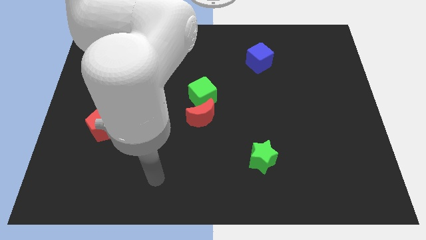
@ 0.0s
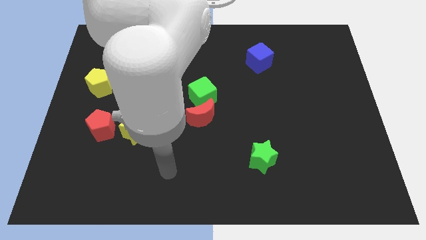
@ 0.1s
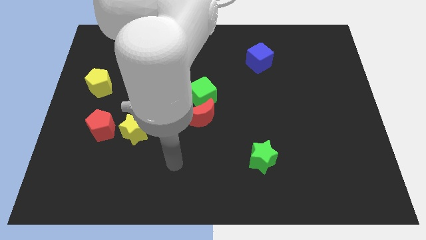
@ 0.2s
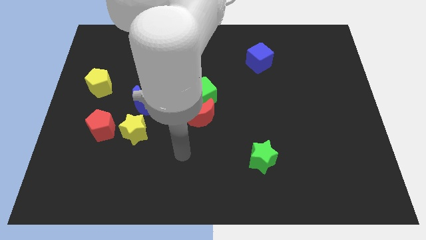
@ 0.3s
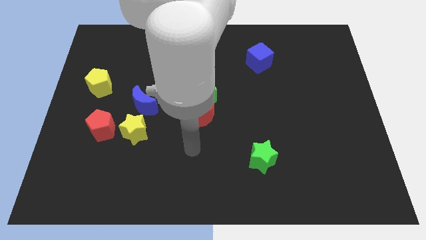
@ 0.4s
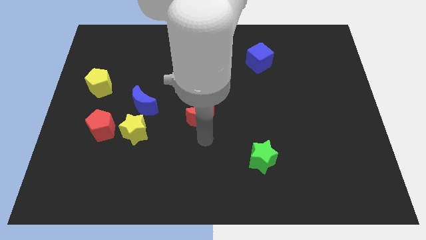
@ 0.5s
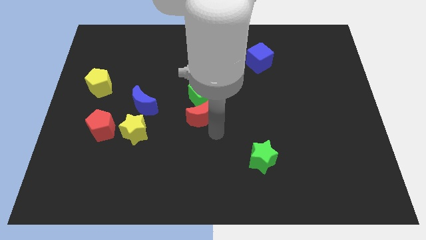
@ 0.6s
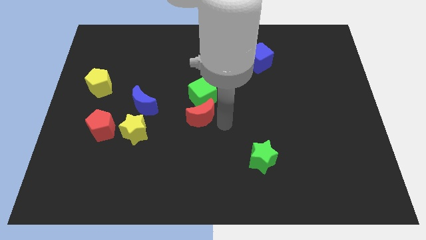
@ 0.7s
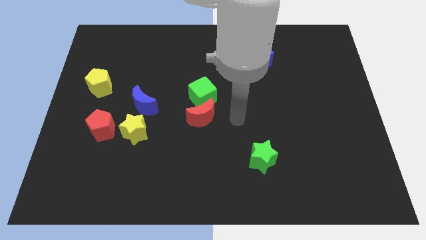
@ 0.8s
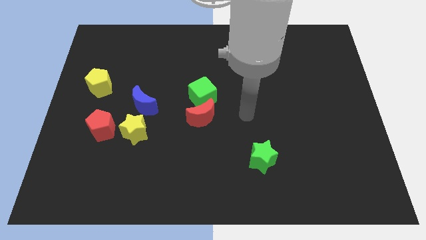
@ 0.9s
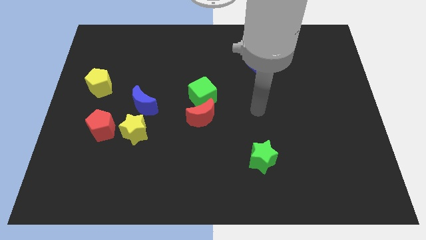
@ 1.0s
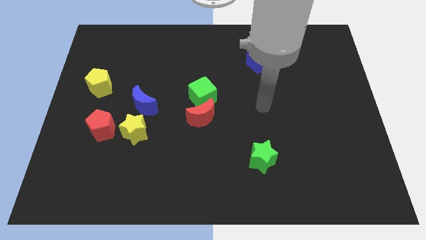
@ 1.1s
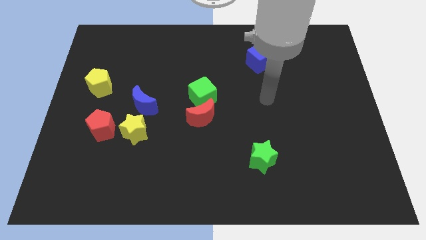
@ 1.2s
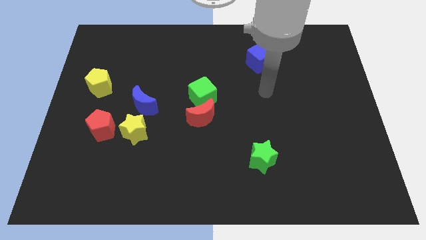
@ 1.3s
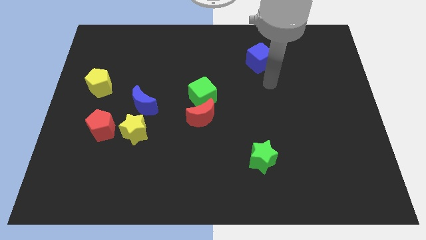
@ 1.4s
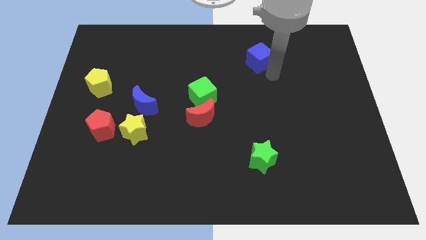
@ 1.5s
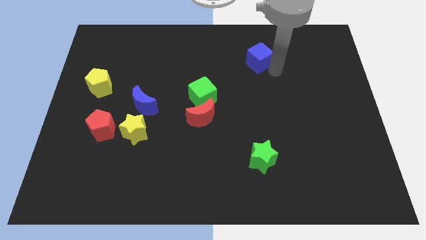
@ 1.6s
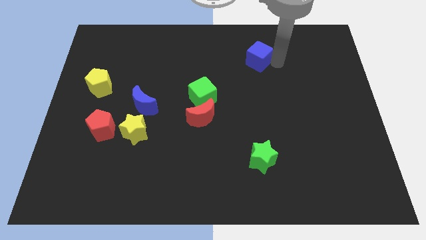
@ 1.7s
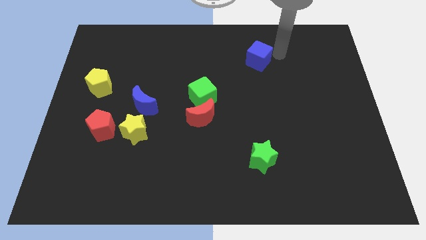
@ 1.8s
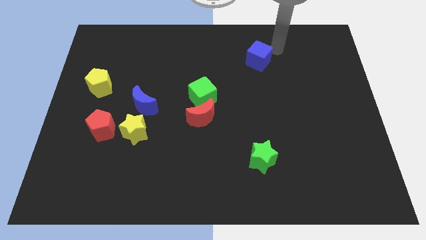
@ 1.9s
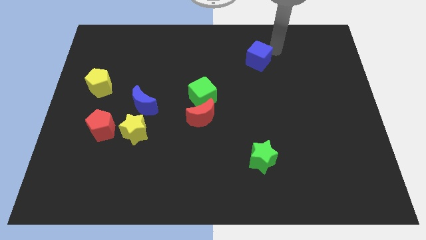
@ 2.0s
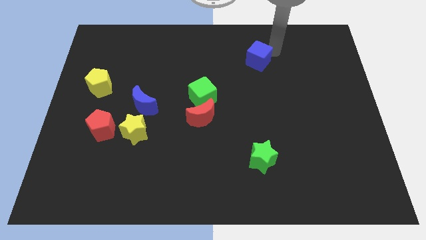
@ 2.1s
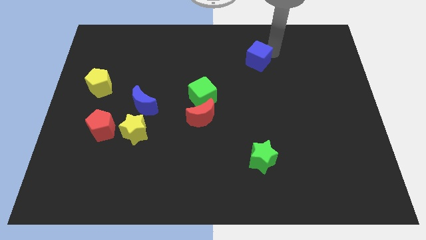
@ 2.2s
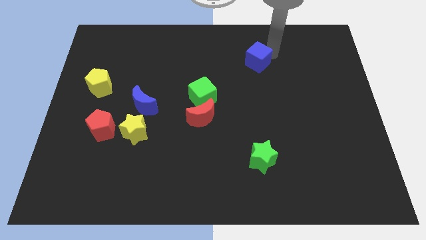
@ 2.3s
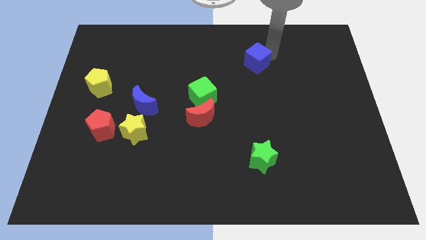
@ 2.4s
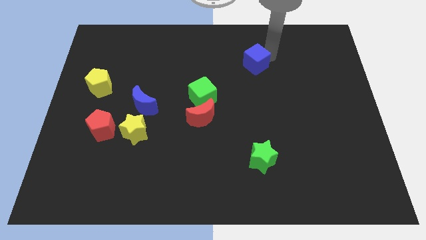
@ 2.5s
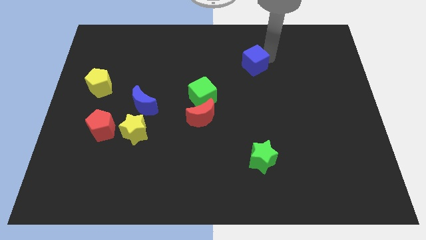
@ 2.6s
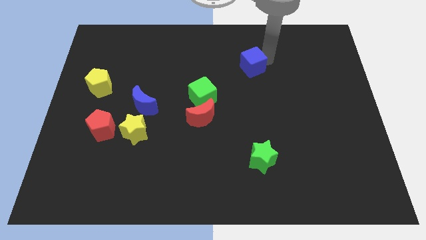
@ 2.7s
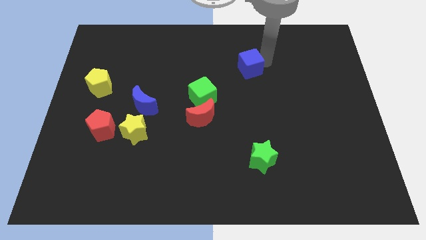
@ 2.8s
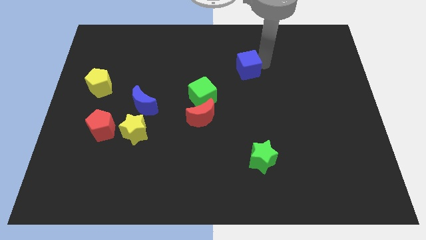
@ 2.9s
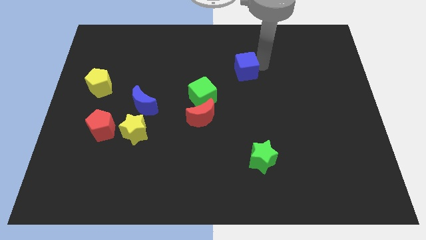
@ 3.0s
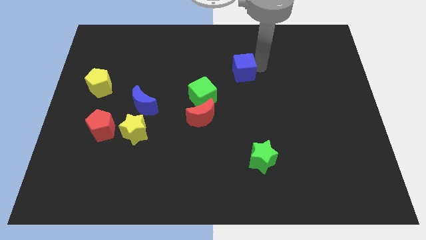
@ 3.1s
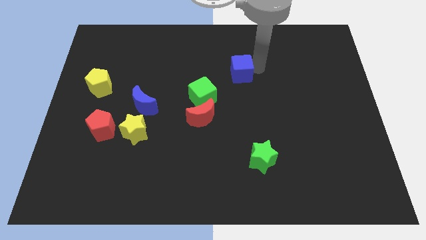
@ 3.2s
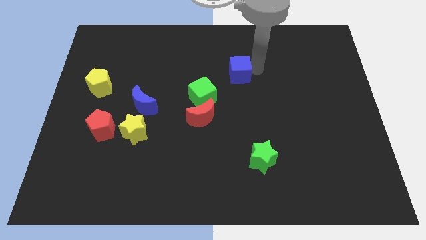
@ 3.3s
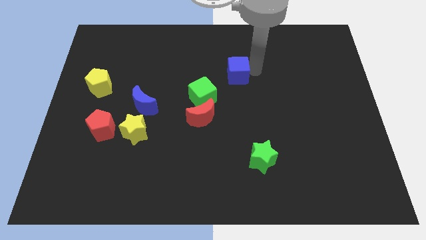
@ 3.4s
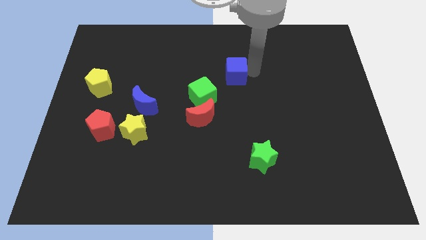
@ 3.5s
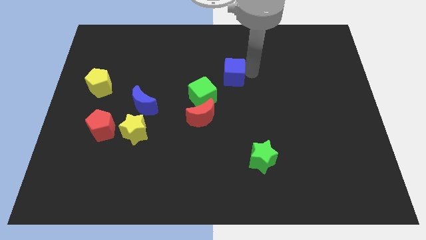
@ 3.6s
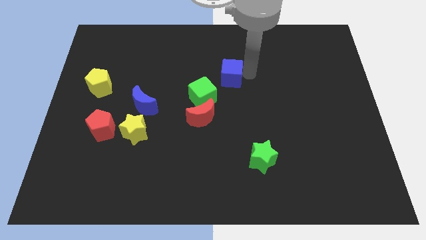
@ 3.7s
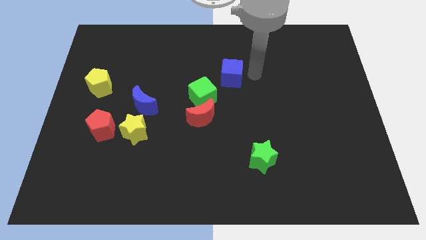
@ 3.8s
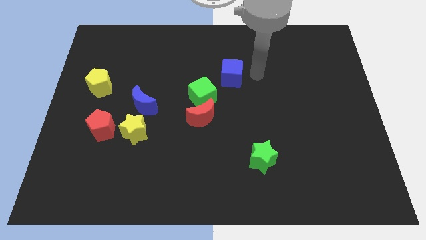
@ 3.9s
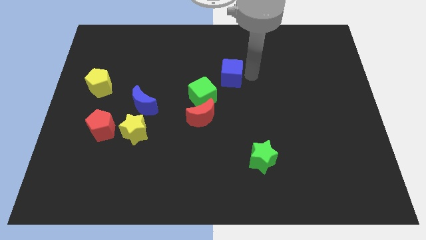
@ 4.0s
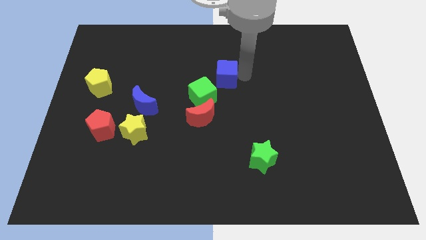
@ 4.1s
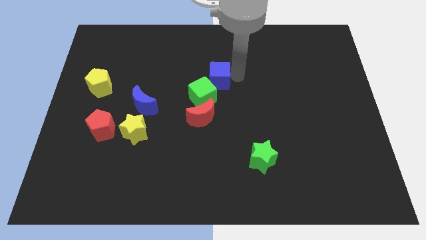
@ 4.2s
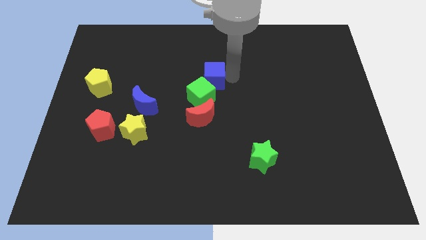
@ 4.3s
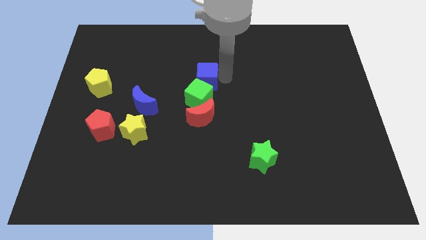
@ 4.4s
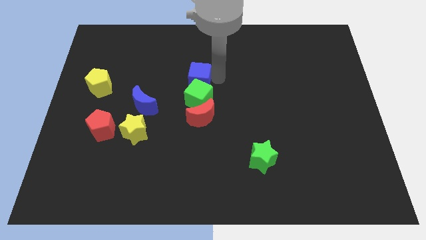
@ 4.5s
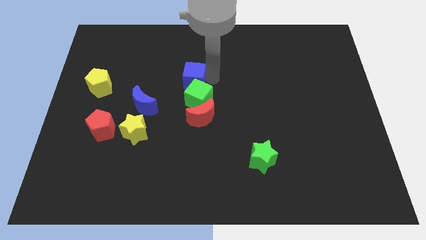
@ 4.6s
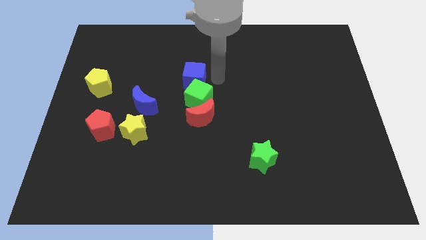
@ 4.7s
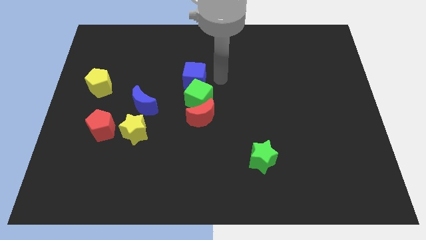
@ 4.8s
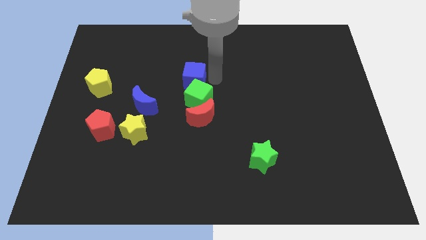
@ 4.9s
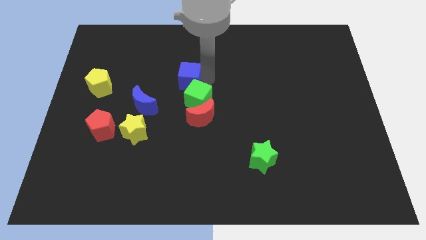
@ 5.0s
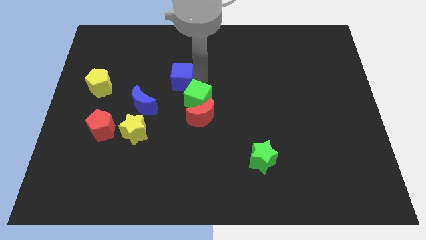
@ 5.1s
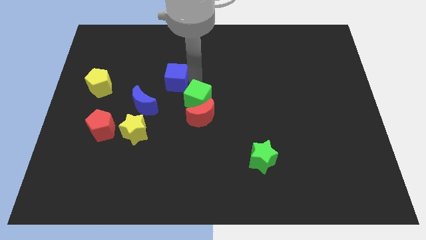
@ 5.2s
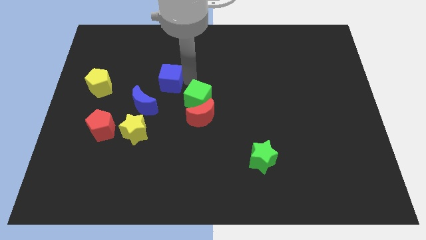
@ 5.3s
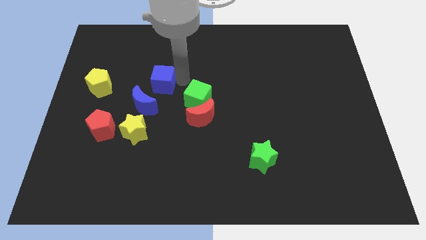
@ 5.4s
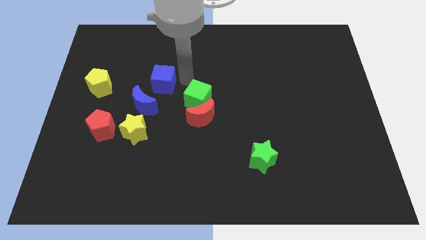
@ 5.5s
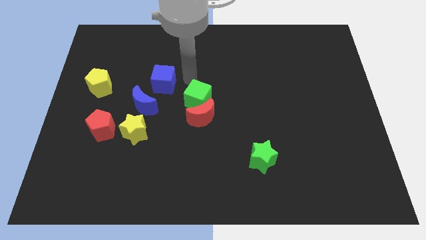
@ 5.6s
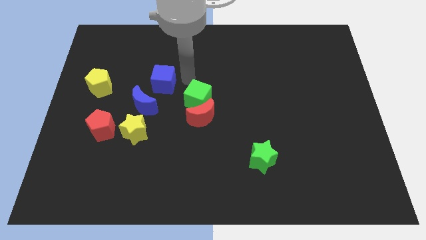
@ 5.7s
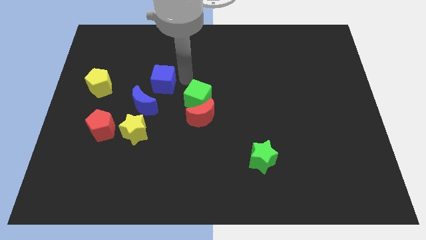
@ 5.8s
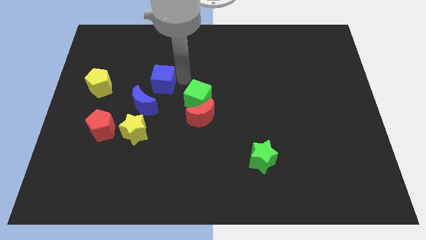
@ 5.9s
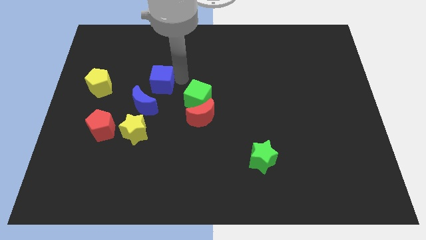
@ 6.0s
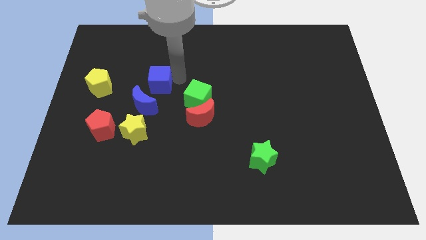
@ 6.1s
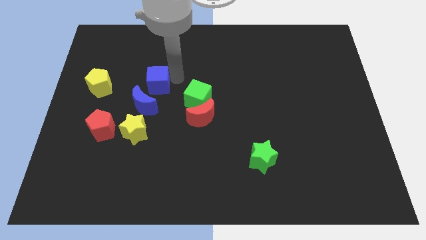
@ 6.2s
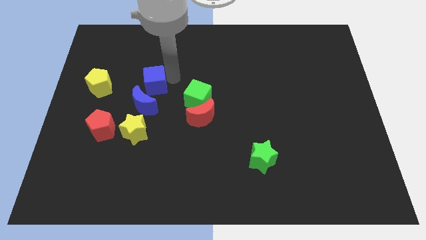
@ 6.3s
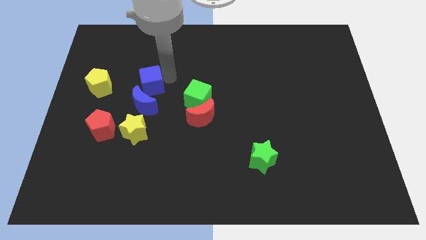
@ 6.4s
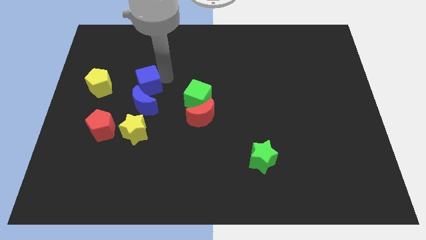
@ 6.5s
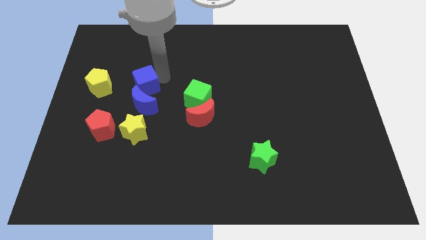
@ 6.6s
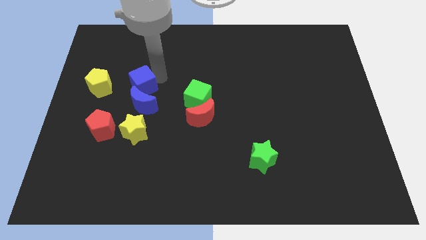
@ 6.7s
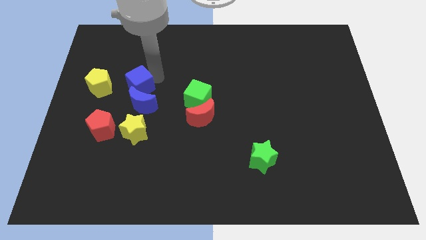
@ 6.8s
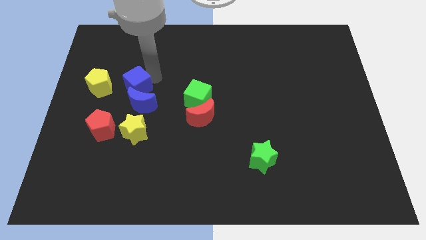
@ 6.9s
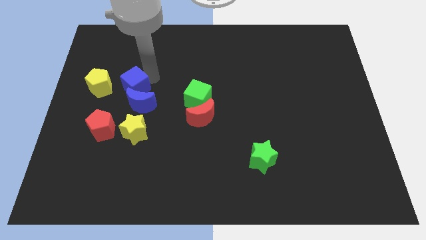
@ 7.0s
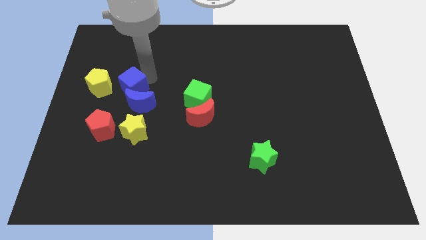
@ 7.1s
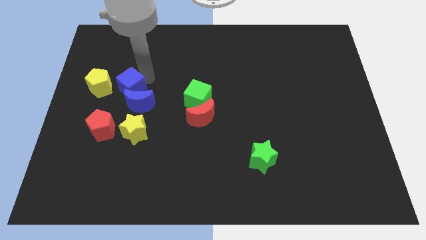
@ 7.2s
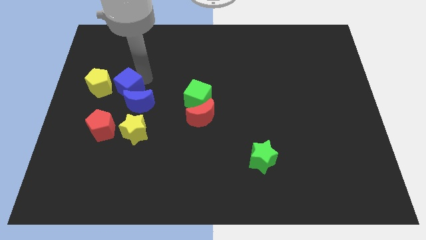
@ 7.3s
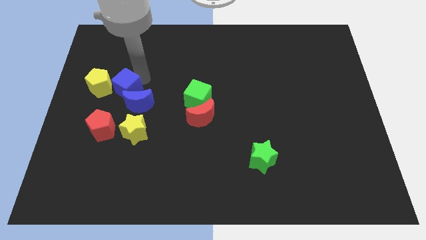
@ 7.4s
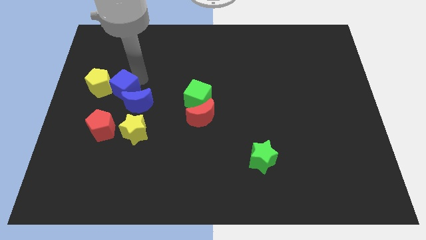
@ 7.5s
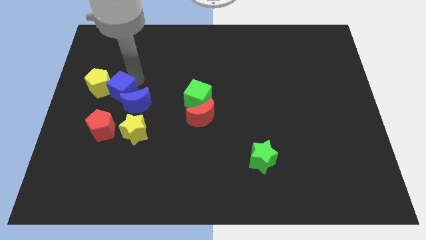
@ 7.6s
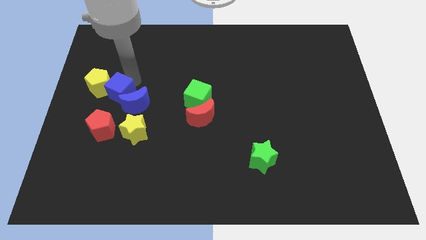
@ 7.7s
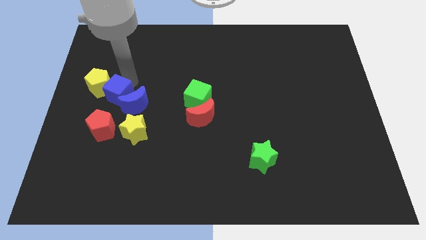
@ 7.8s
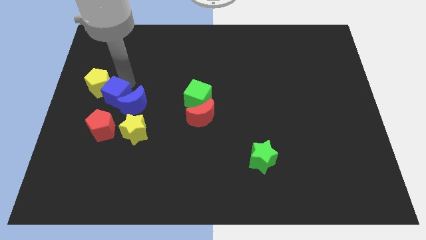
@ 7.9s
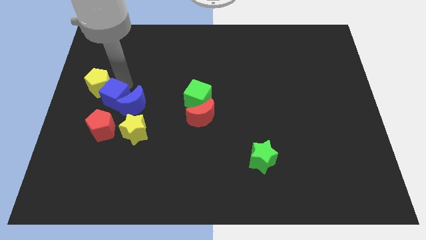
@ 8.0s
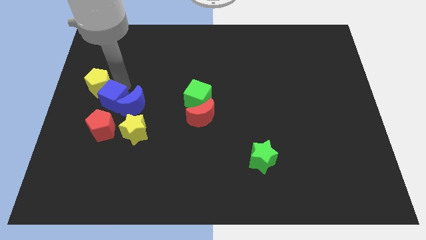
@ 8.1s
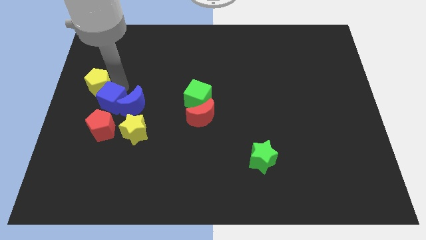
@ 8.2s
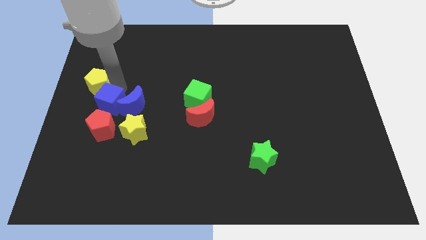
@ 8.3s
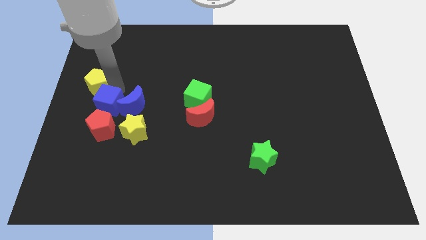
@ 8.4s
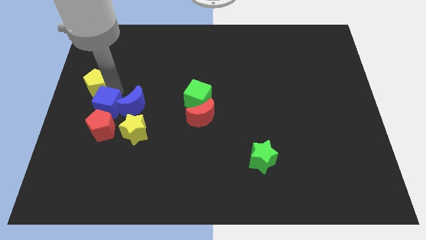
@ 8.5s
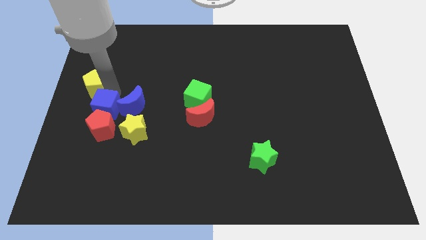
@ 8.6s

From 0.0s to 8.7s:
put the blue cube to the red pentagon
